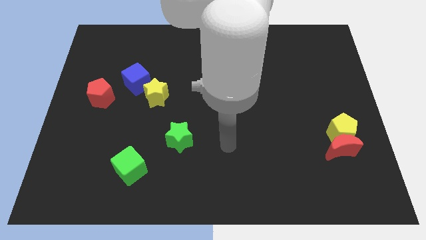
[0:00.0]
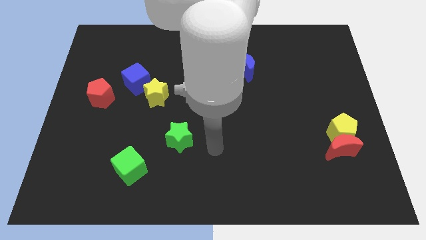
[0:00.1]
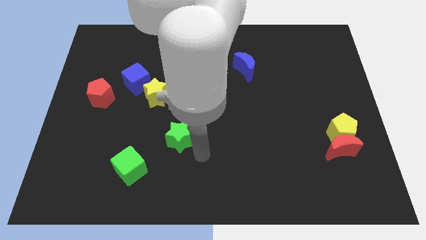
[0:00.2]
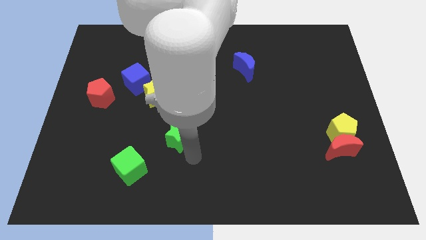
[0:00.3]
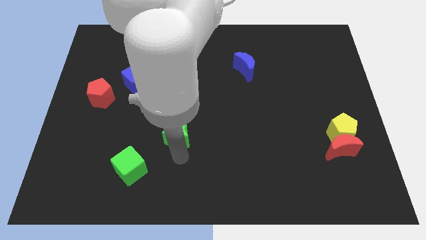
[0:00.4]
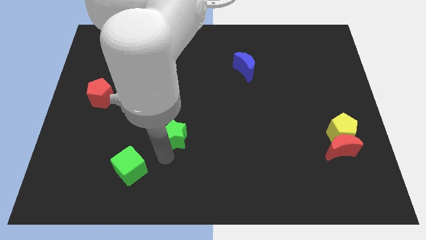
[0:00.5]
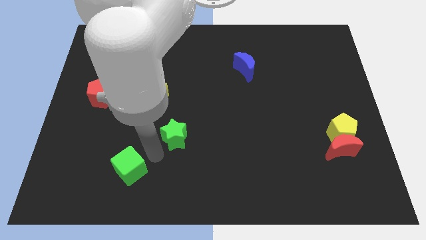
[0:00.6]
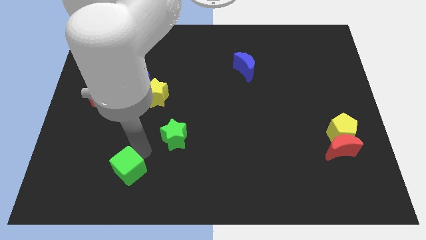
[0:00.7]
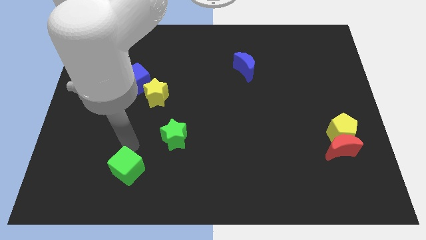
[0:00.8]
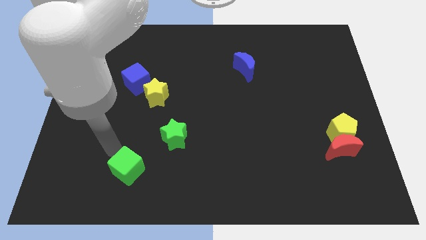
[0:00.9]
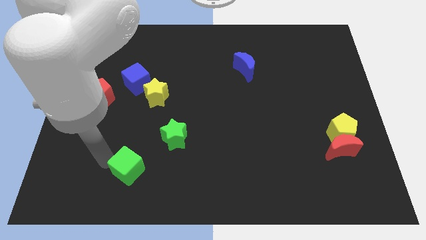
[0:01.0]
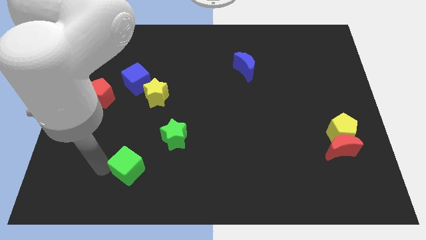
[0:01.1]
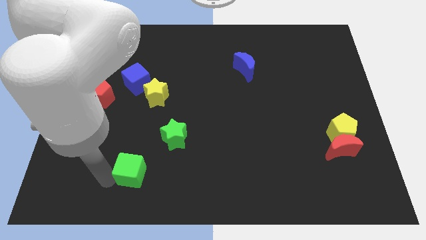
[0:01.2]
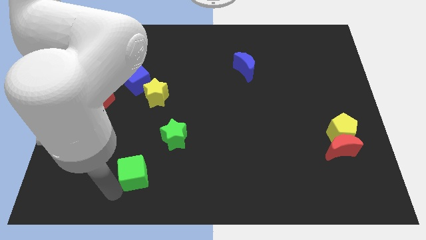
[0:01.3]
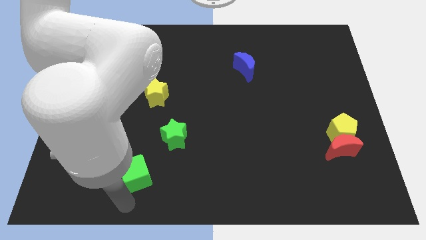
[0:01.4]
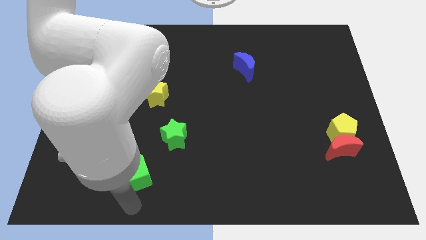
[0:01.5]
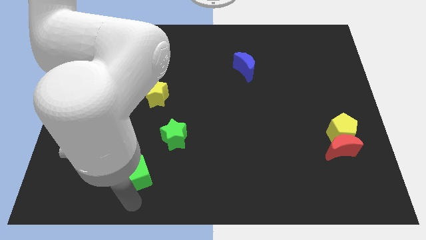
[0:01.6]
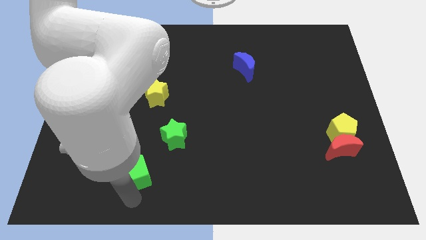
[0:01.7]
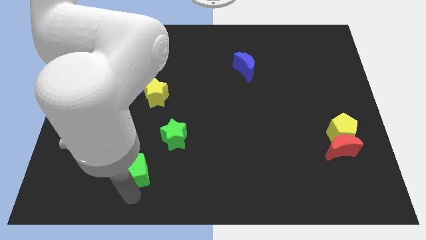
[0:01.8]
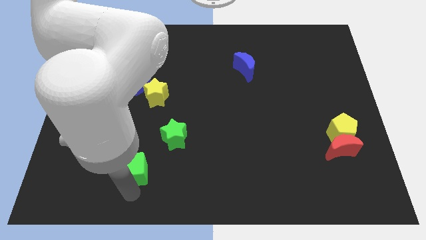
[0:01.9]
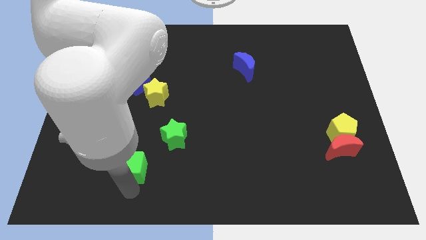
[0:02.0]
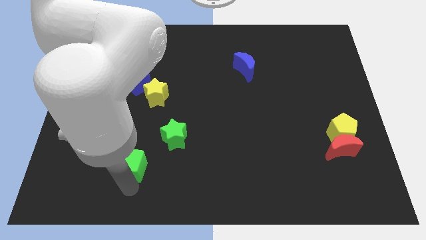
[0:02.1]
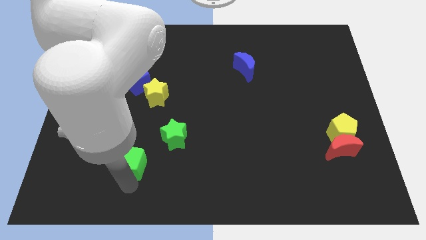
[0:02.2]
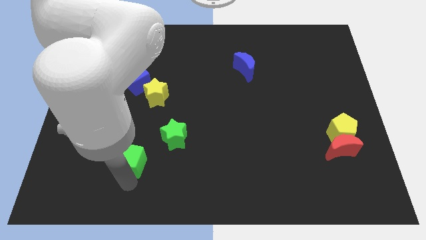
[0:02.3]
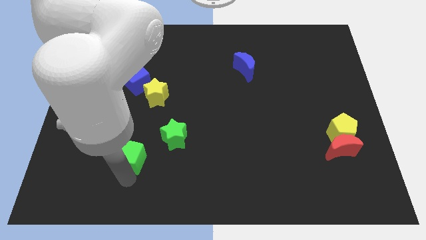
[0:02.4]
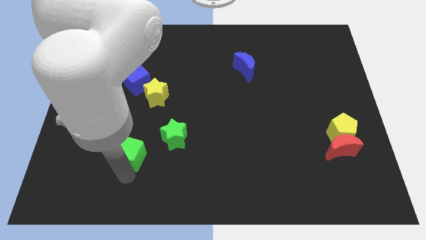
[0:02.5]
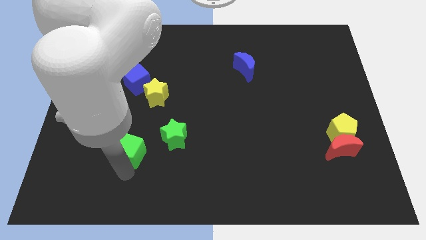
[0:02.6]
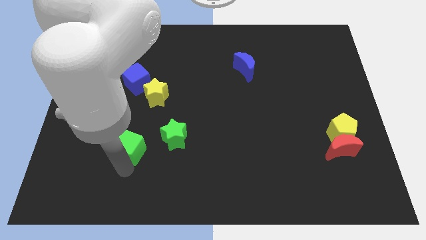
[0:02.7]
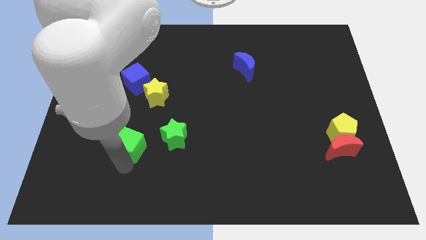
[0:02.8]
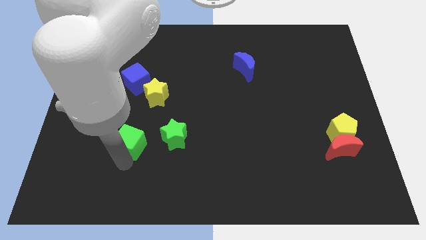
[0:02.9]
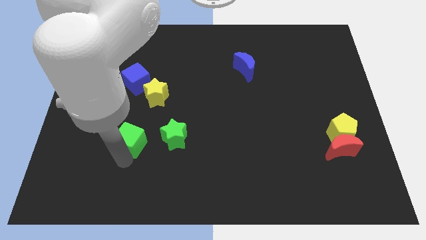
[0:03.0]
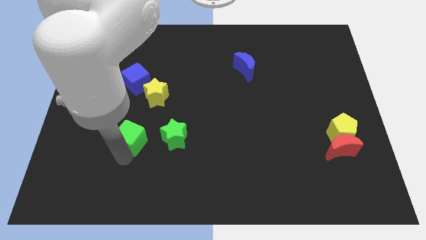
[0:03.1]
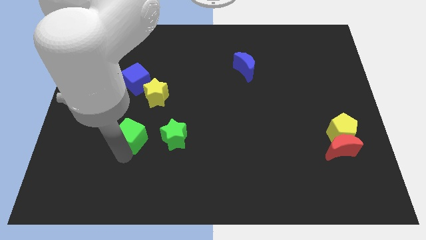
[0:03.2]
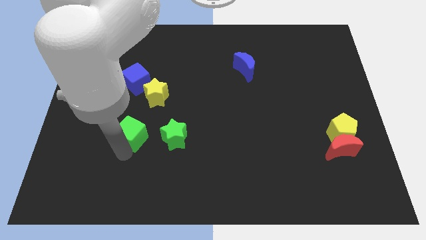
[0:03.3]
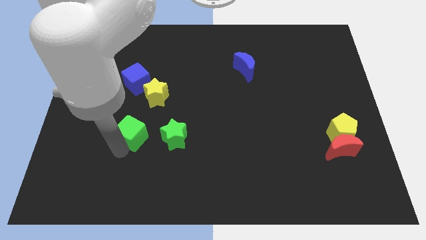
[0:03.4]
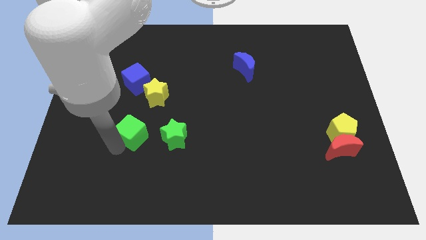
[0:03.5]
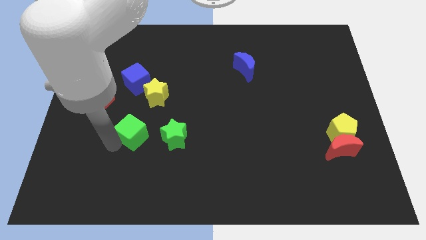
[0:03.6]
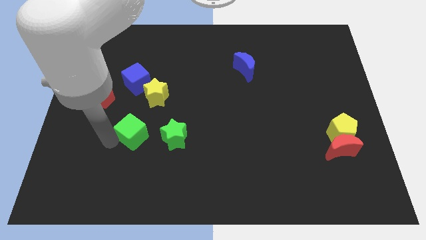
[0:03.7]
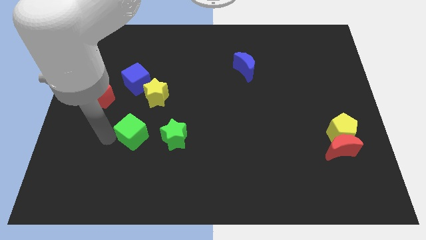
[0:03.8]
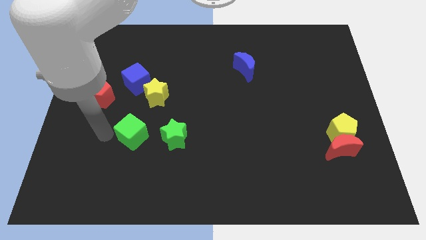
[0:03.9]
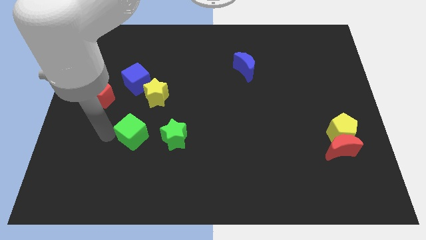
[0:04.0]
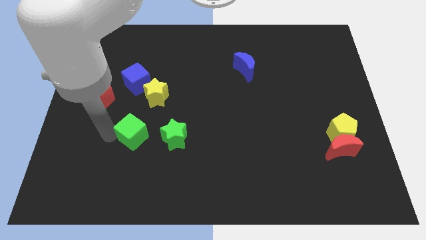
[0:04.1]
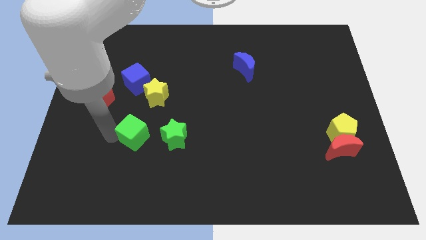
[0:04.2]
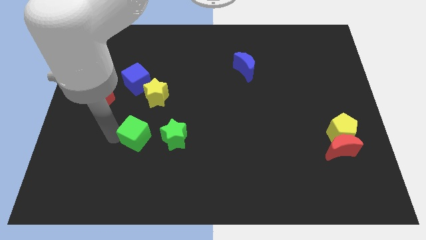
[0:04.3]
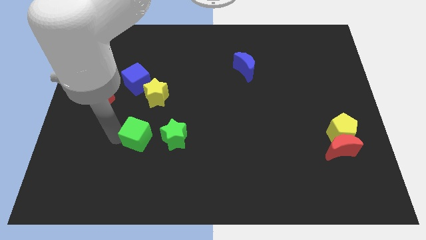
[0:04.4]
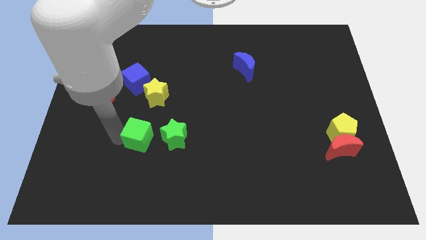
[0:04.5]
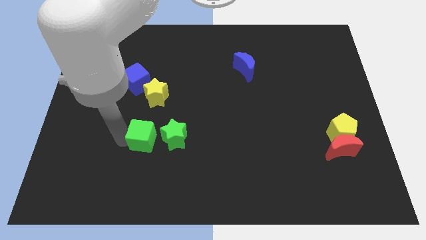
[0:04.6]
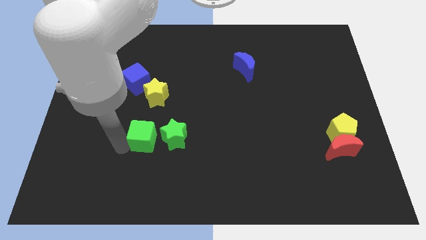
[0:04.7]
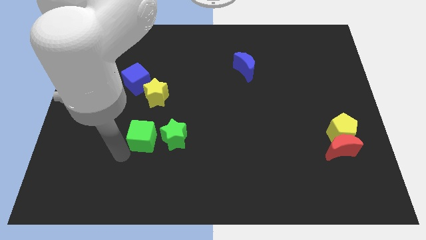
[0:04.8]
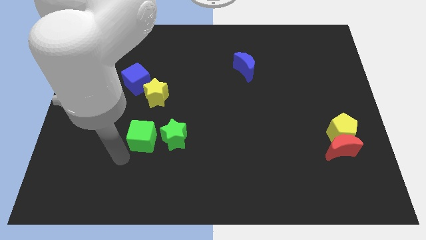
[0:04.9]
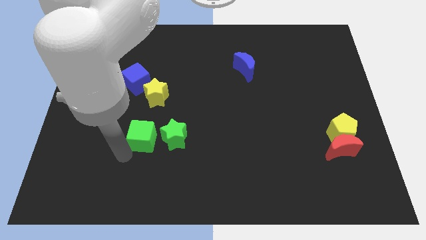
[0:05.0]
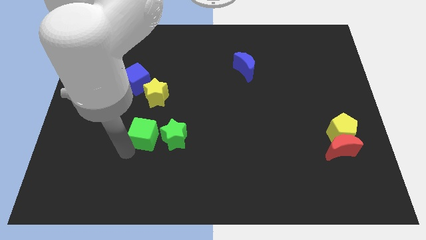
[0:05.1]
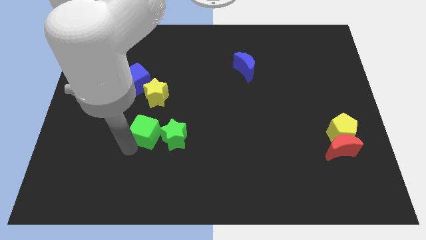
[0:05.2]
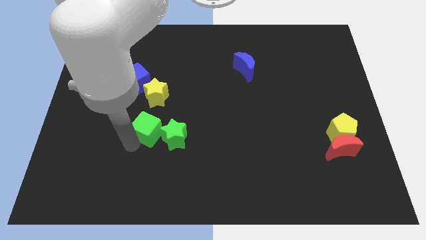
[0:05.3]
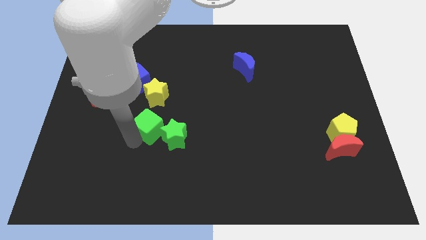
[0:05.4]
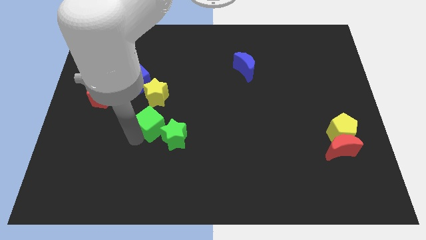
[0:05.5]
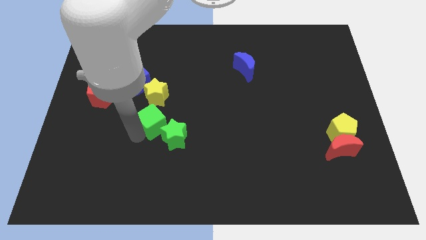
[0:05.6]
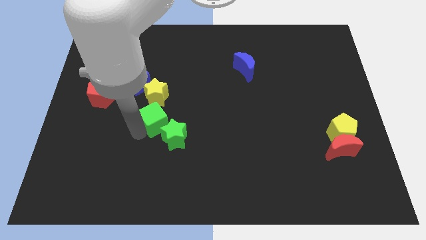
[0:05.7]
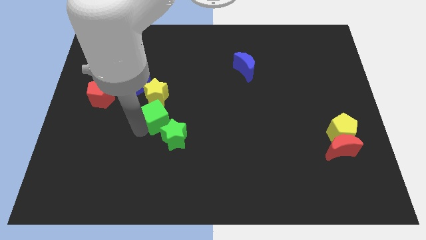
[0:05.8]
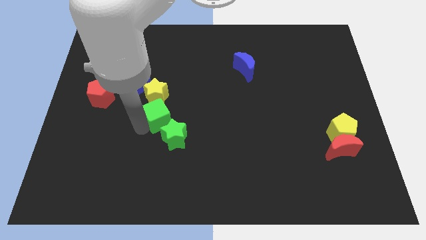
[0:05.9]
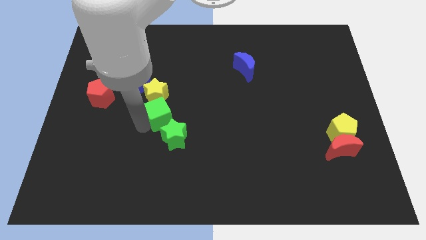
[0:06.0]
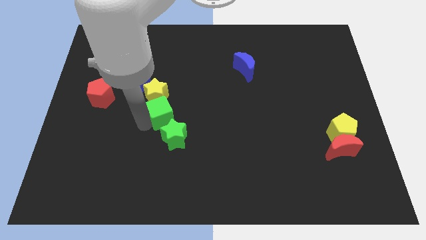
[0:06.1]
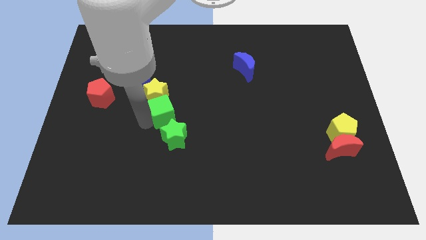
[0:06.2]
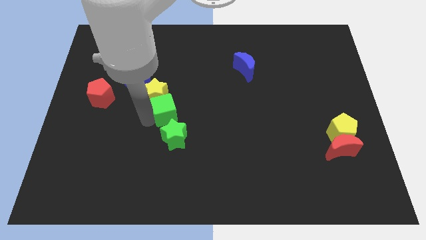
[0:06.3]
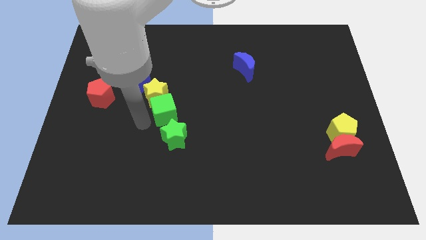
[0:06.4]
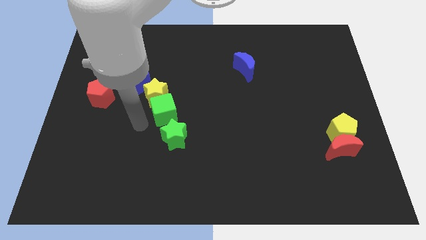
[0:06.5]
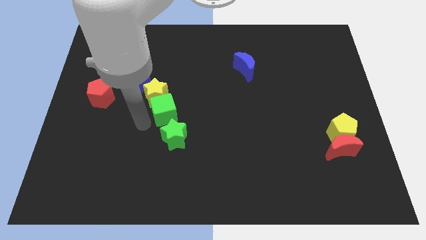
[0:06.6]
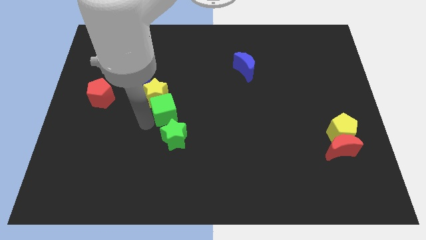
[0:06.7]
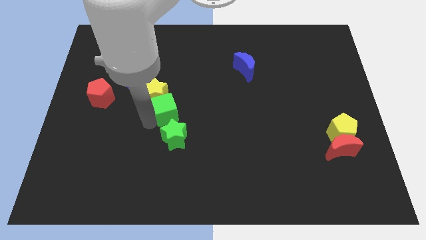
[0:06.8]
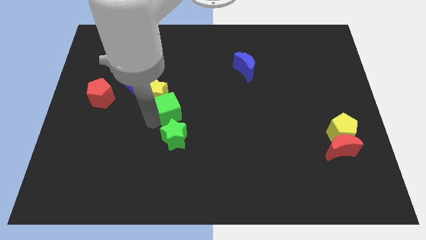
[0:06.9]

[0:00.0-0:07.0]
put the green cube to the right side of the yellow star

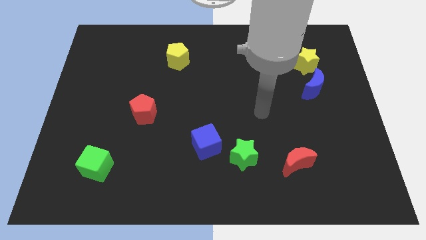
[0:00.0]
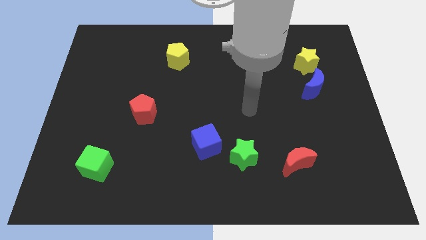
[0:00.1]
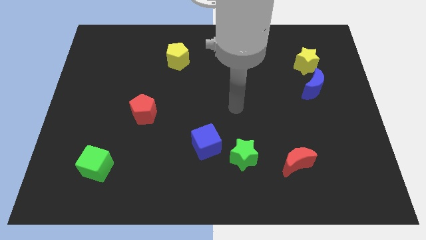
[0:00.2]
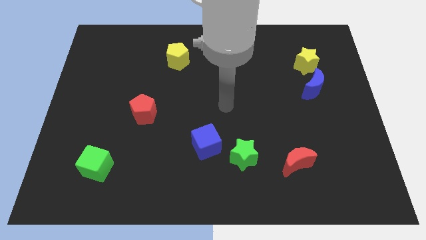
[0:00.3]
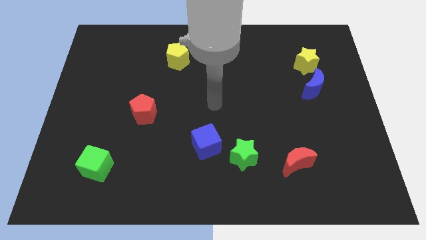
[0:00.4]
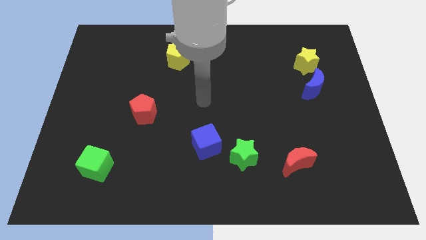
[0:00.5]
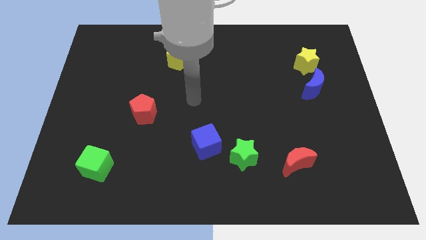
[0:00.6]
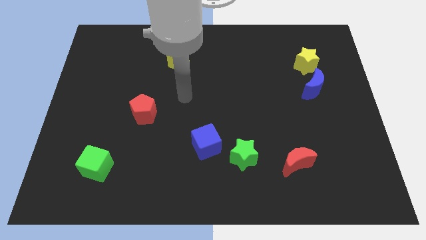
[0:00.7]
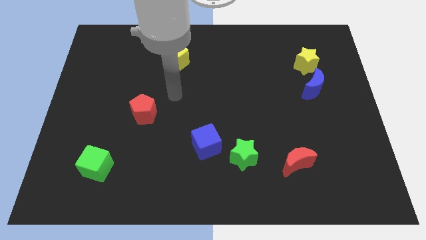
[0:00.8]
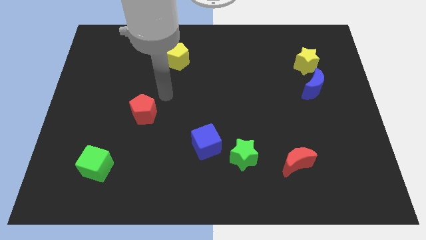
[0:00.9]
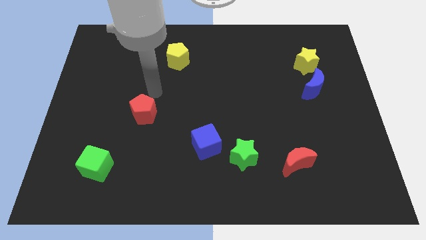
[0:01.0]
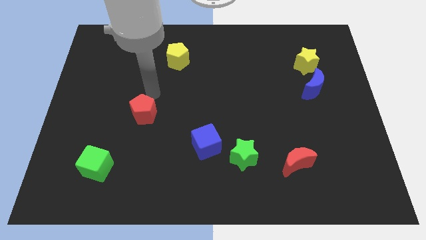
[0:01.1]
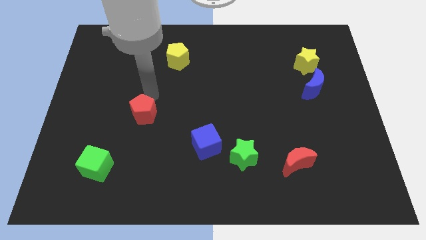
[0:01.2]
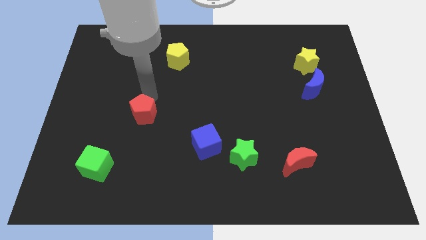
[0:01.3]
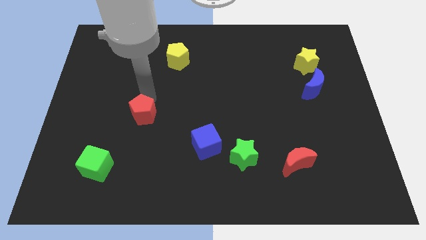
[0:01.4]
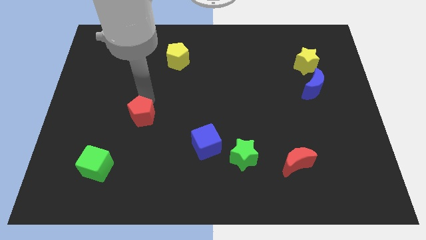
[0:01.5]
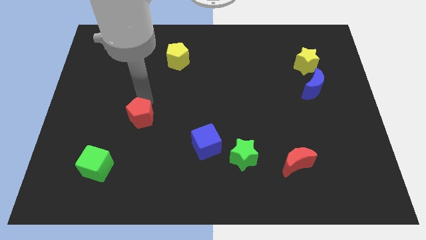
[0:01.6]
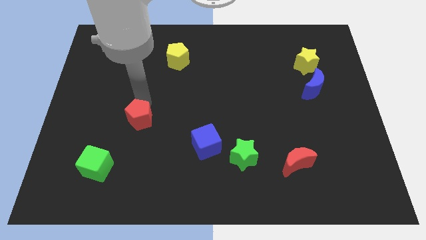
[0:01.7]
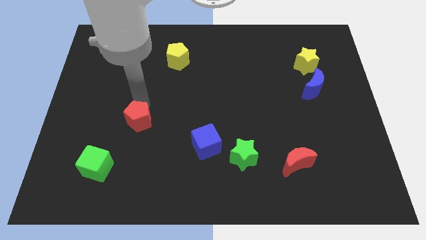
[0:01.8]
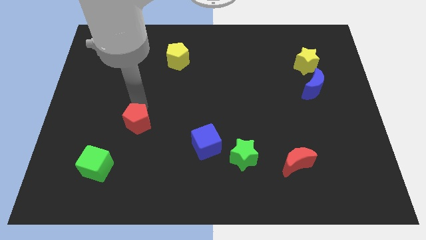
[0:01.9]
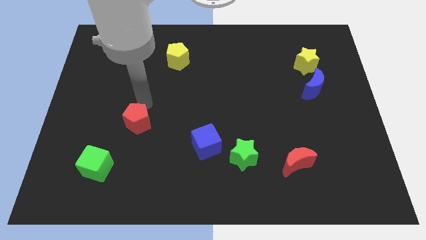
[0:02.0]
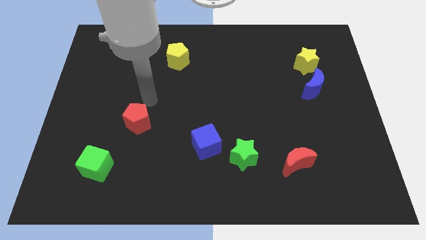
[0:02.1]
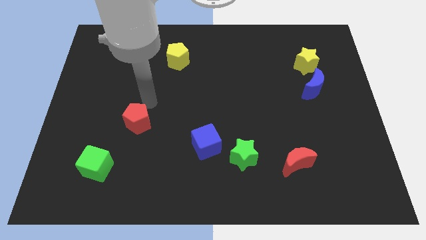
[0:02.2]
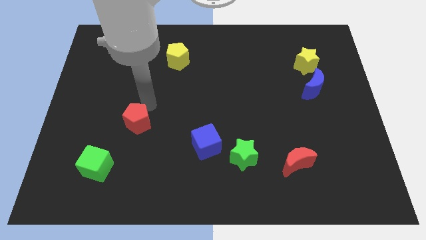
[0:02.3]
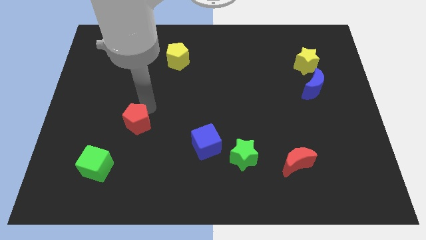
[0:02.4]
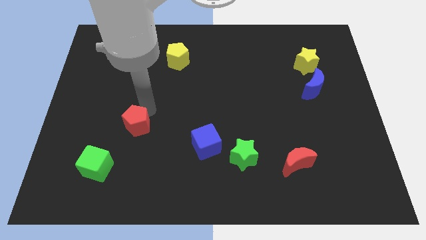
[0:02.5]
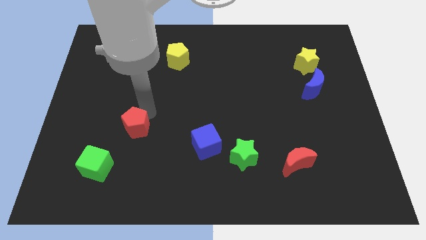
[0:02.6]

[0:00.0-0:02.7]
push the red pentagon to the top right of the green cube
